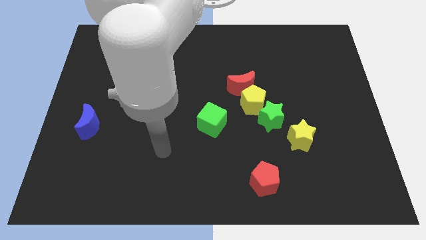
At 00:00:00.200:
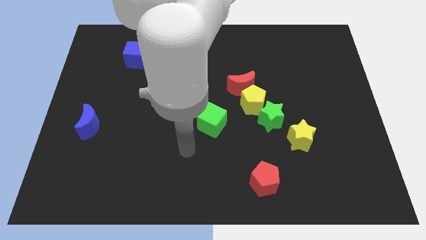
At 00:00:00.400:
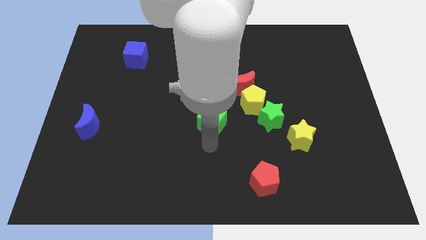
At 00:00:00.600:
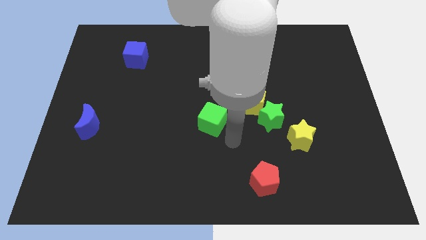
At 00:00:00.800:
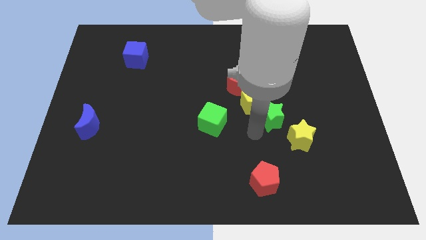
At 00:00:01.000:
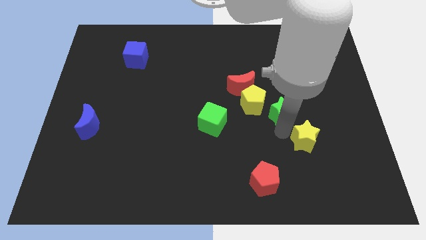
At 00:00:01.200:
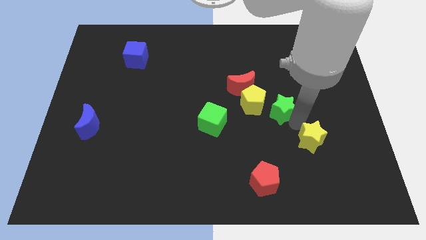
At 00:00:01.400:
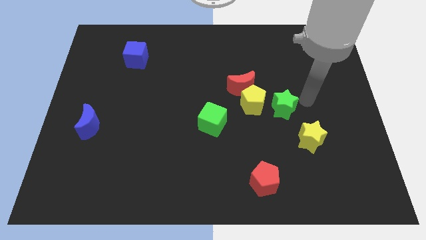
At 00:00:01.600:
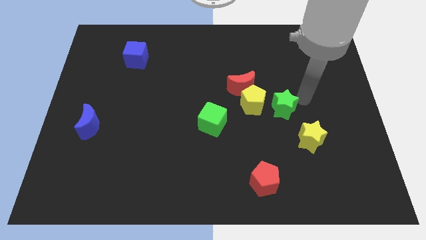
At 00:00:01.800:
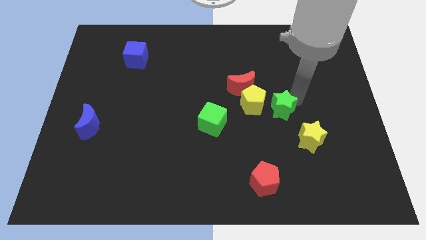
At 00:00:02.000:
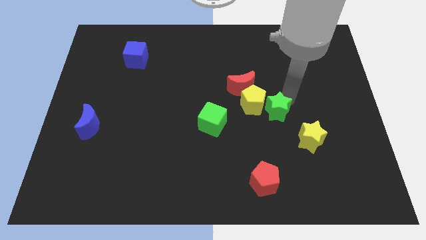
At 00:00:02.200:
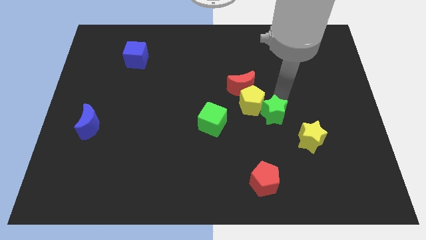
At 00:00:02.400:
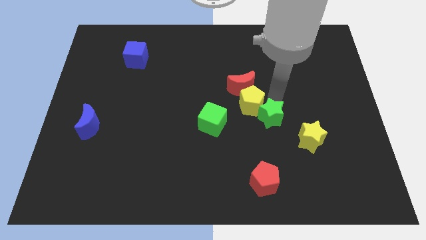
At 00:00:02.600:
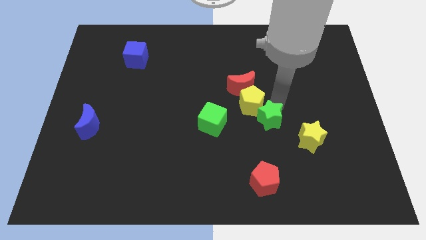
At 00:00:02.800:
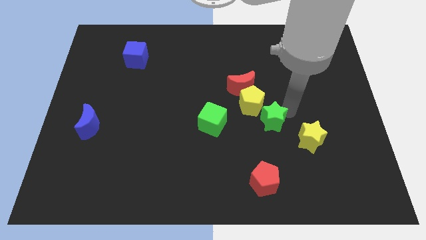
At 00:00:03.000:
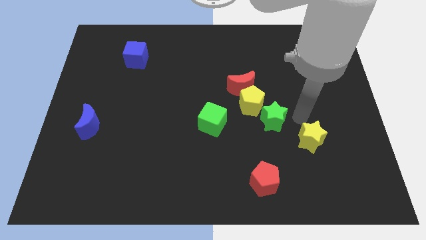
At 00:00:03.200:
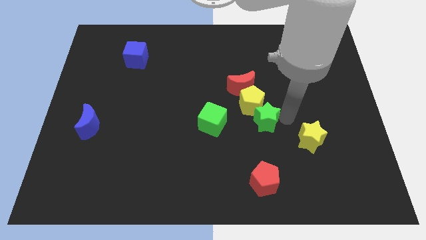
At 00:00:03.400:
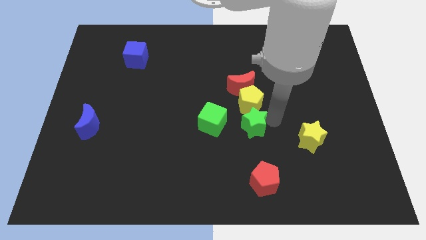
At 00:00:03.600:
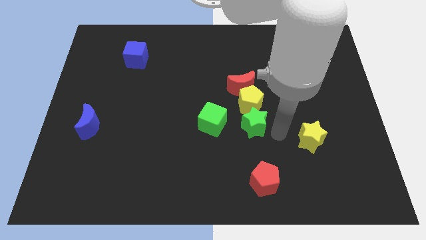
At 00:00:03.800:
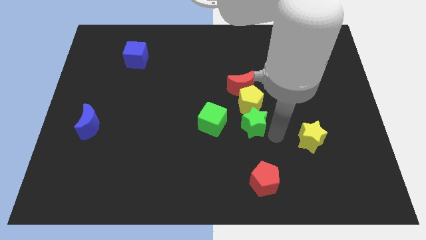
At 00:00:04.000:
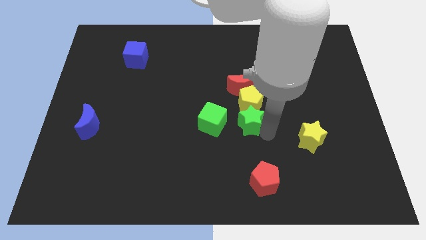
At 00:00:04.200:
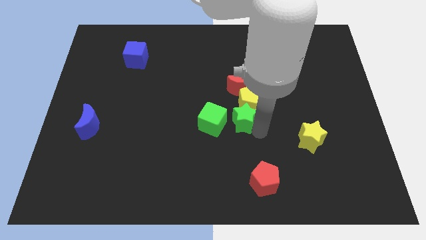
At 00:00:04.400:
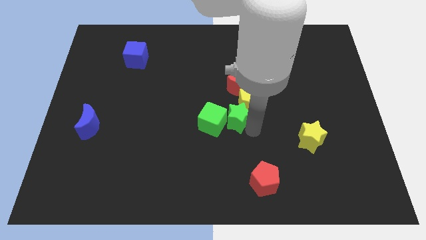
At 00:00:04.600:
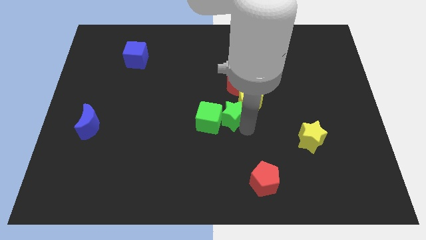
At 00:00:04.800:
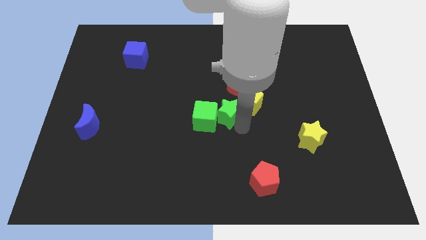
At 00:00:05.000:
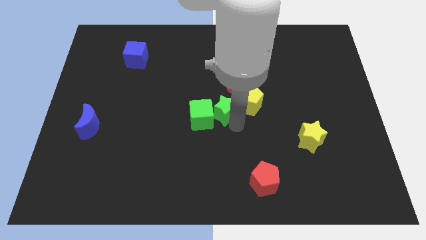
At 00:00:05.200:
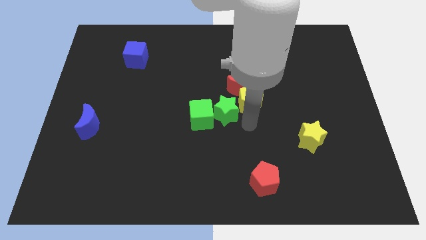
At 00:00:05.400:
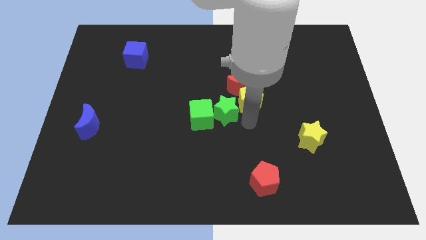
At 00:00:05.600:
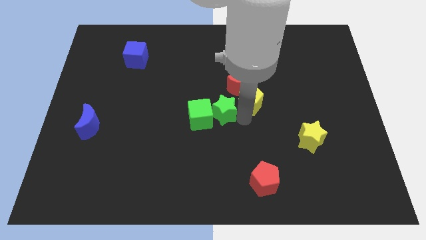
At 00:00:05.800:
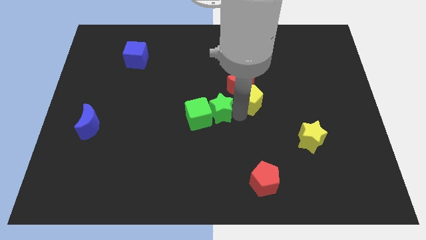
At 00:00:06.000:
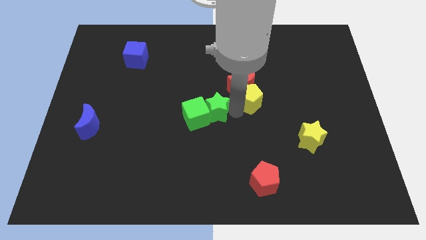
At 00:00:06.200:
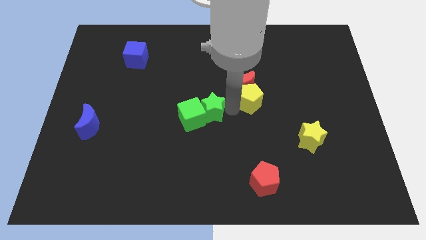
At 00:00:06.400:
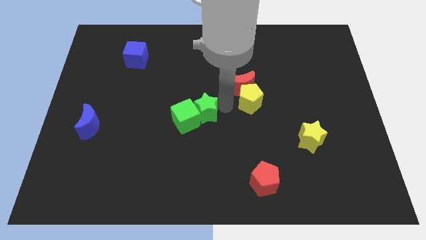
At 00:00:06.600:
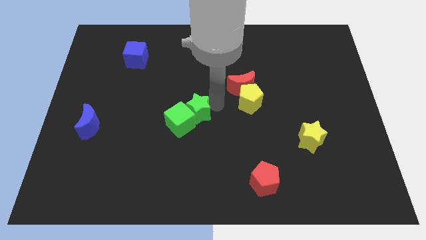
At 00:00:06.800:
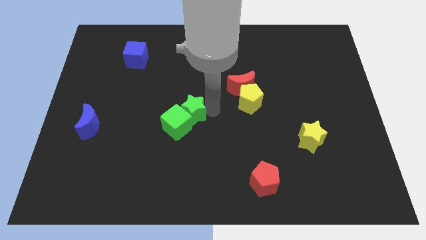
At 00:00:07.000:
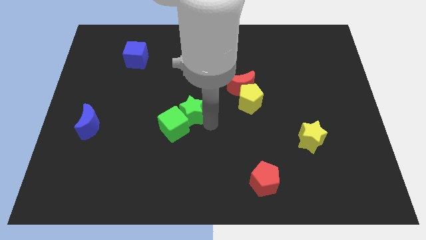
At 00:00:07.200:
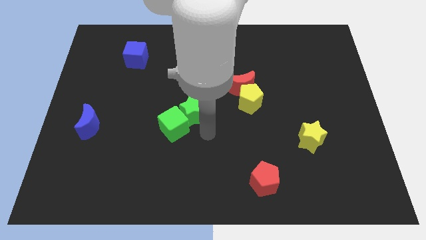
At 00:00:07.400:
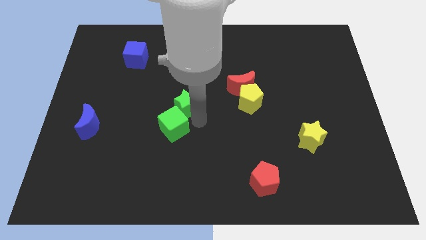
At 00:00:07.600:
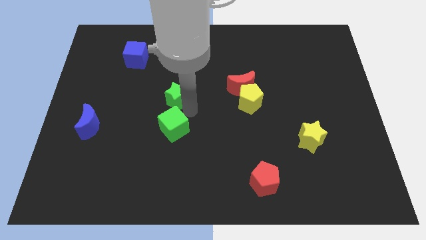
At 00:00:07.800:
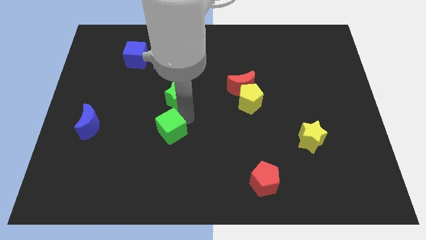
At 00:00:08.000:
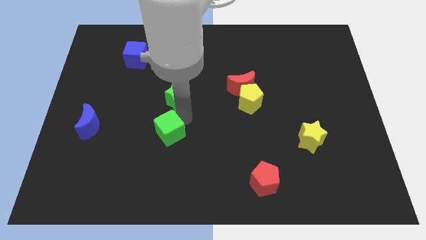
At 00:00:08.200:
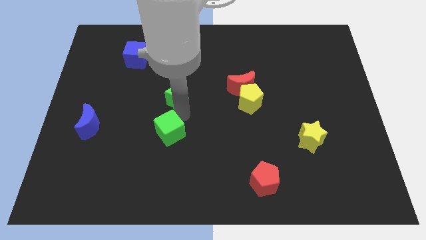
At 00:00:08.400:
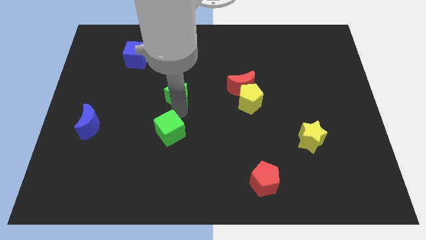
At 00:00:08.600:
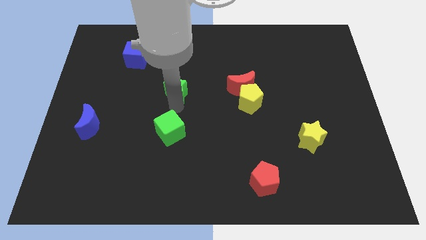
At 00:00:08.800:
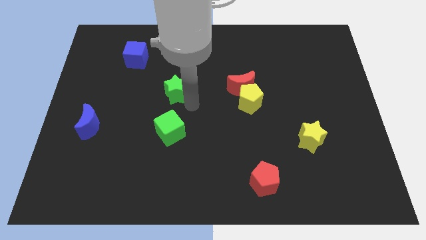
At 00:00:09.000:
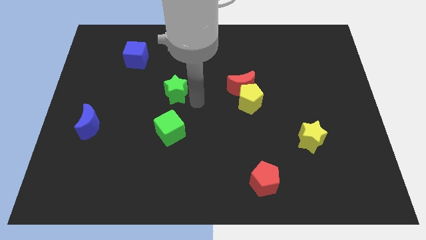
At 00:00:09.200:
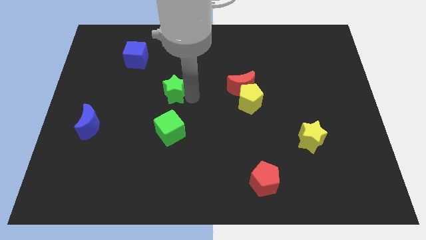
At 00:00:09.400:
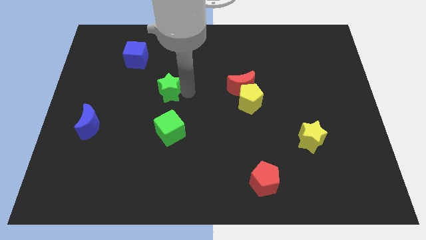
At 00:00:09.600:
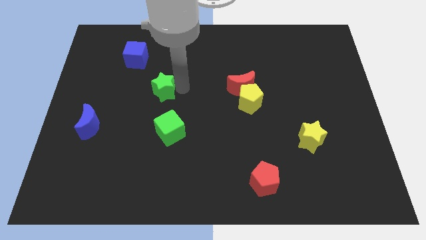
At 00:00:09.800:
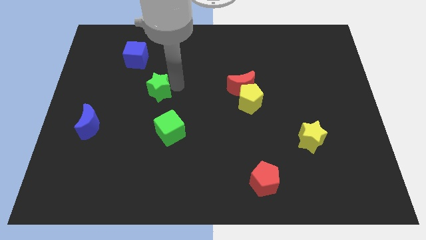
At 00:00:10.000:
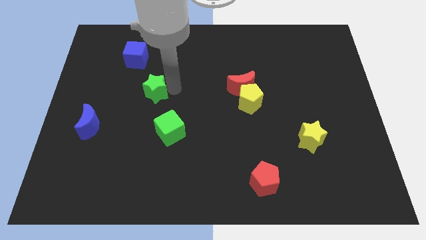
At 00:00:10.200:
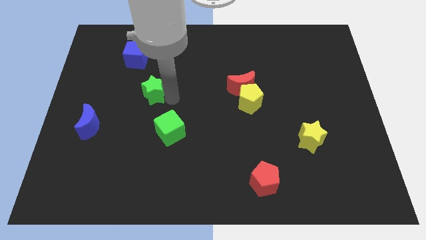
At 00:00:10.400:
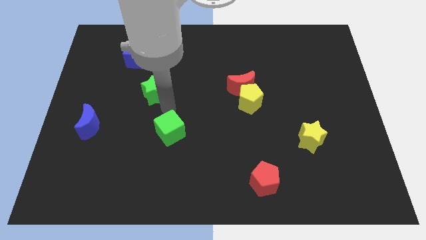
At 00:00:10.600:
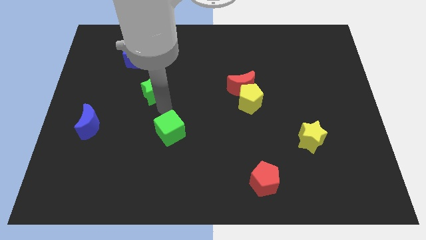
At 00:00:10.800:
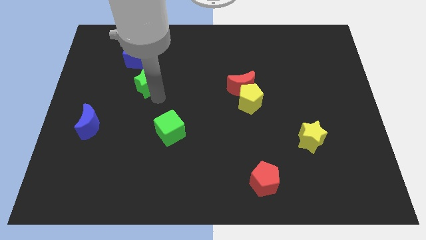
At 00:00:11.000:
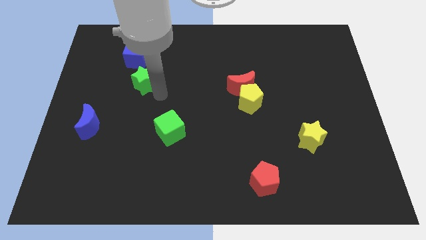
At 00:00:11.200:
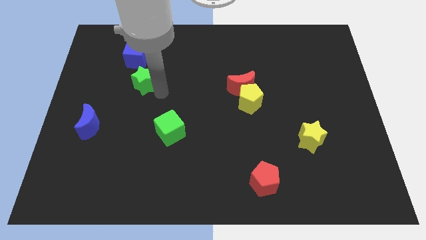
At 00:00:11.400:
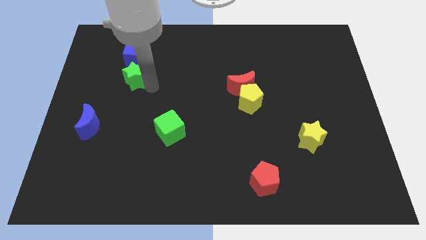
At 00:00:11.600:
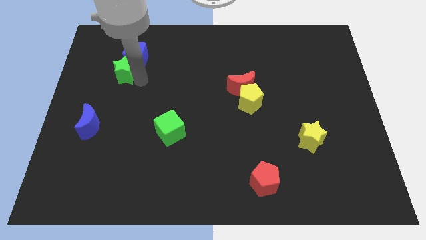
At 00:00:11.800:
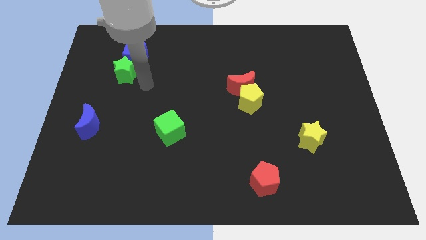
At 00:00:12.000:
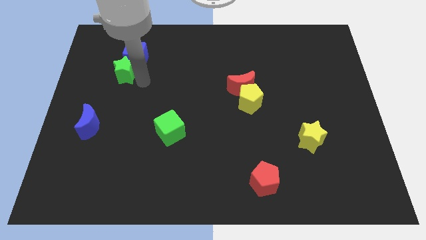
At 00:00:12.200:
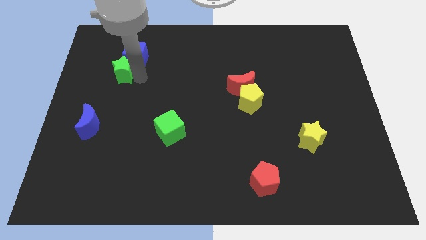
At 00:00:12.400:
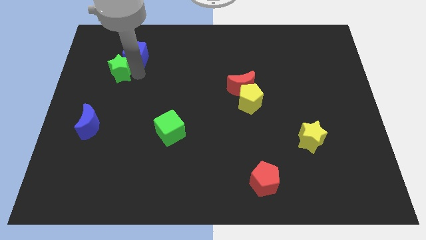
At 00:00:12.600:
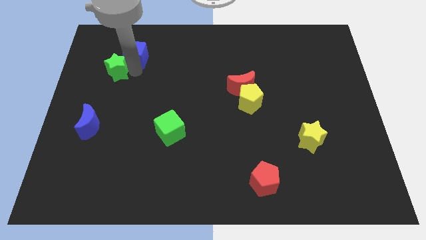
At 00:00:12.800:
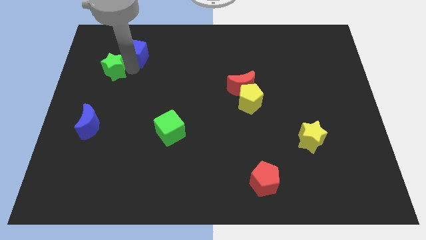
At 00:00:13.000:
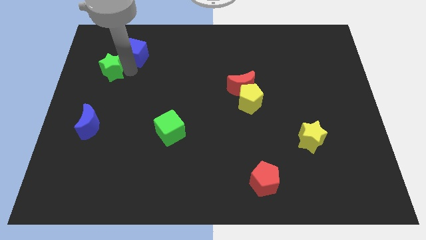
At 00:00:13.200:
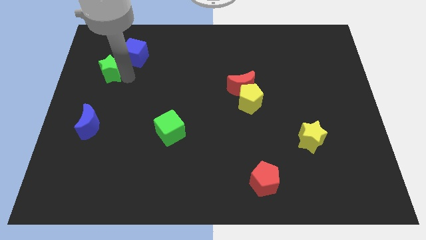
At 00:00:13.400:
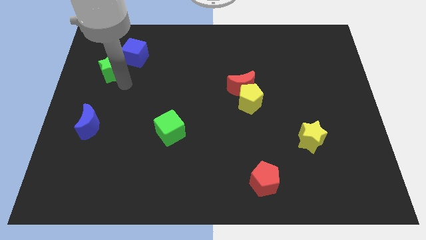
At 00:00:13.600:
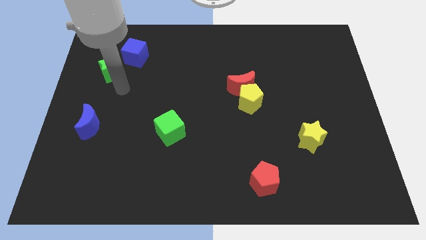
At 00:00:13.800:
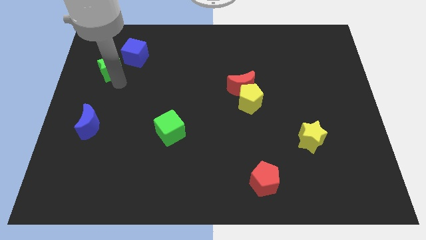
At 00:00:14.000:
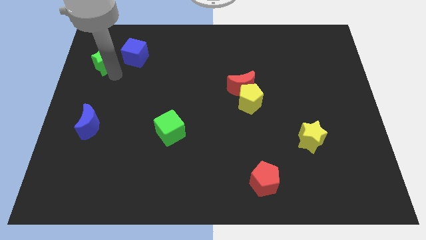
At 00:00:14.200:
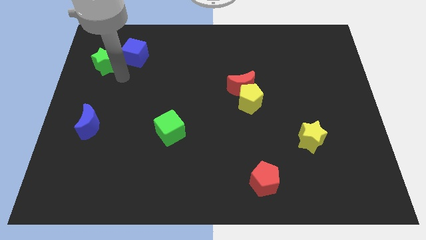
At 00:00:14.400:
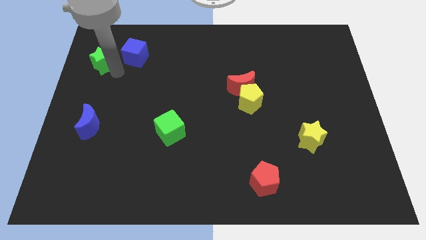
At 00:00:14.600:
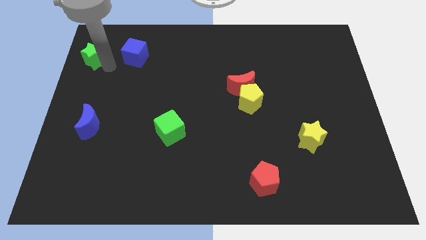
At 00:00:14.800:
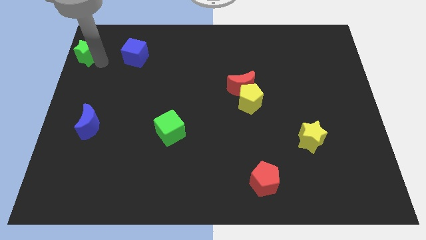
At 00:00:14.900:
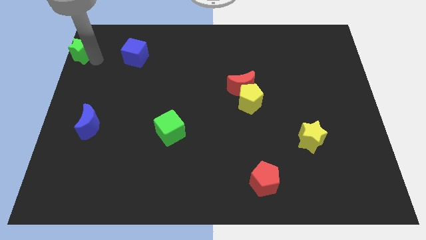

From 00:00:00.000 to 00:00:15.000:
push the green star to the top left of the board
